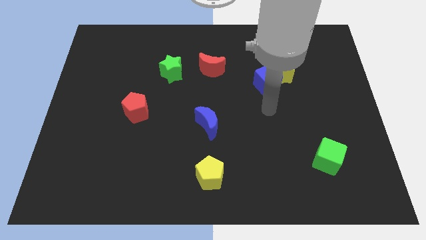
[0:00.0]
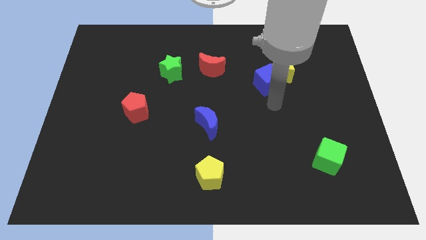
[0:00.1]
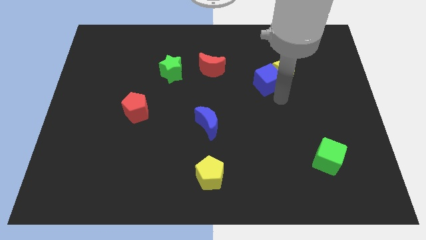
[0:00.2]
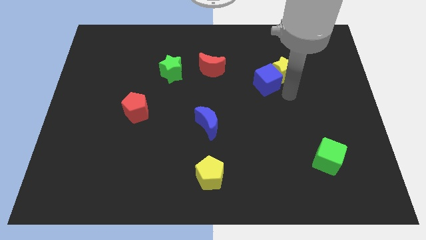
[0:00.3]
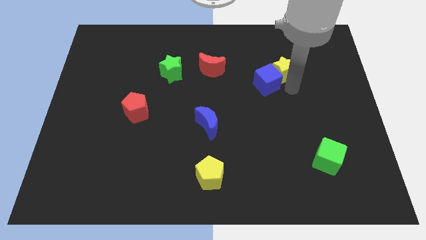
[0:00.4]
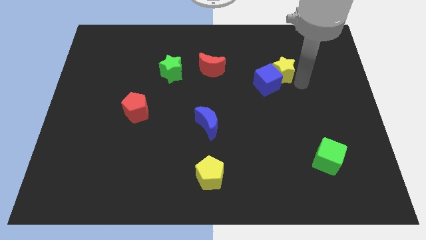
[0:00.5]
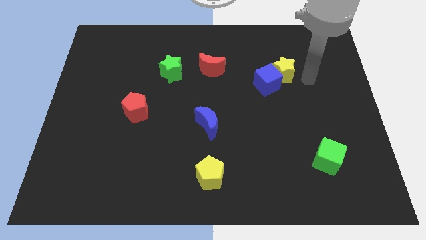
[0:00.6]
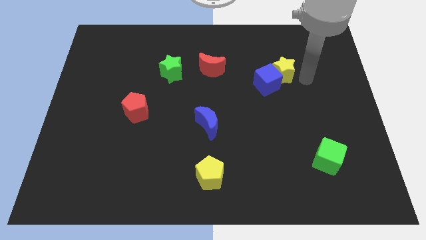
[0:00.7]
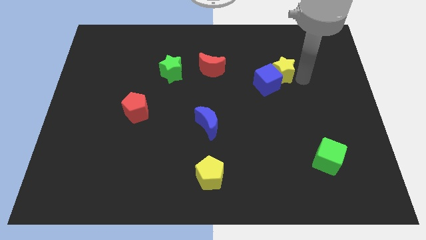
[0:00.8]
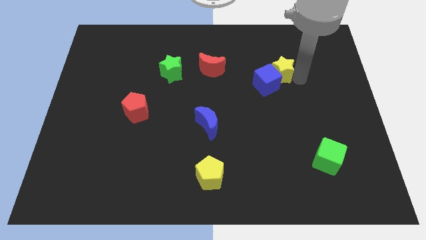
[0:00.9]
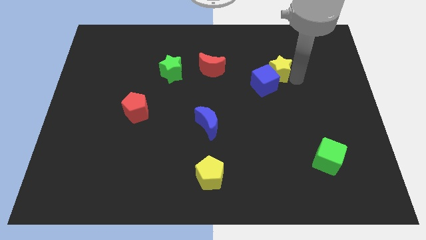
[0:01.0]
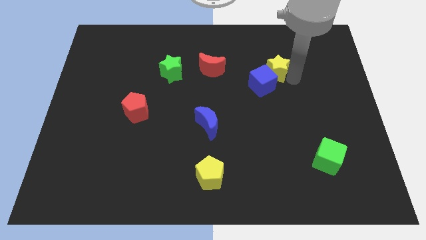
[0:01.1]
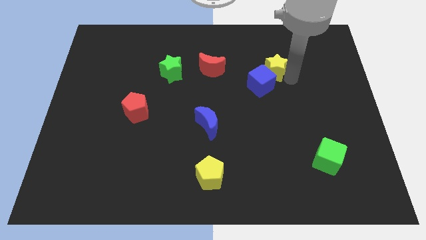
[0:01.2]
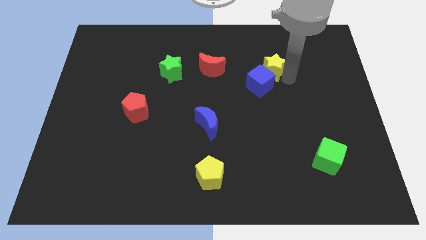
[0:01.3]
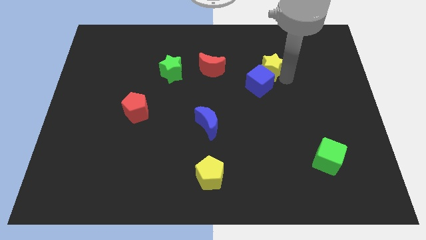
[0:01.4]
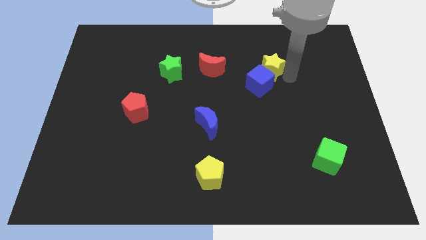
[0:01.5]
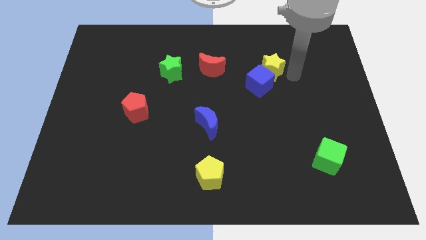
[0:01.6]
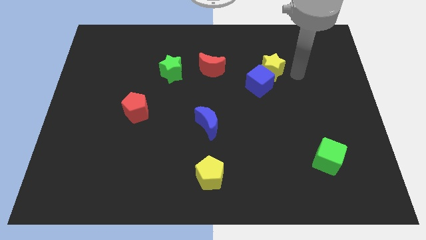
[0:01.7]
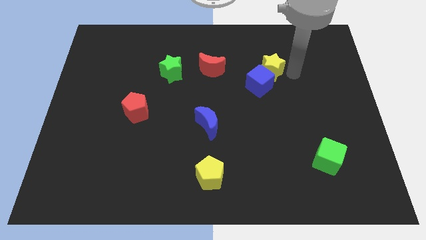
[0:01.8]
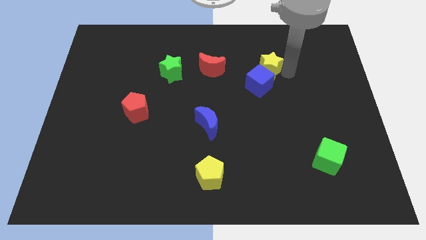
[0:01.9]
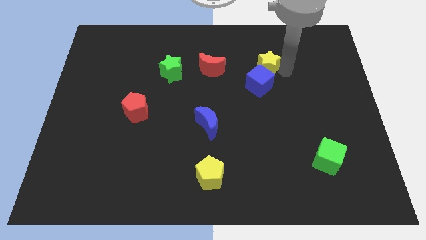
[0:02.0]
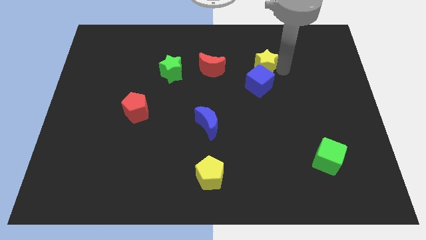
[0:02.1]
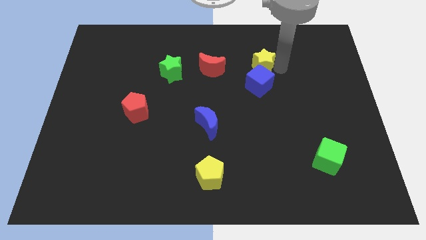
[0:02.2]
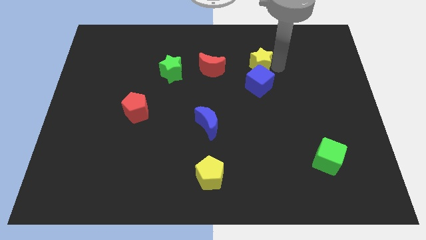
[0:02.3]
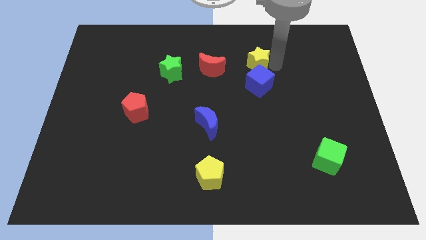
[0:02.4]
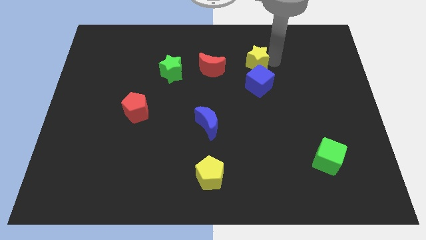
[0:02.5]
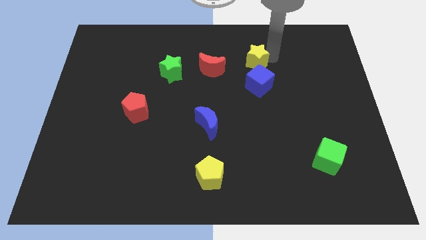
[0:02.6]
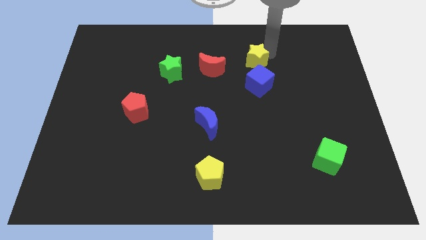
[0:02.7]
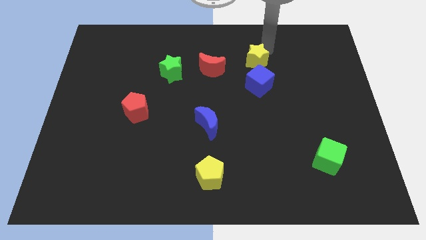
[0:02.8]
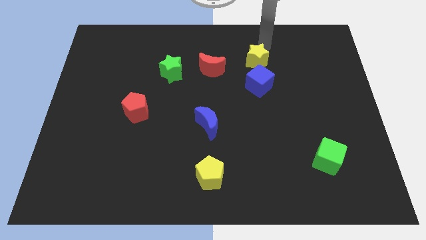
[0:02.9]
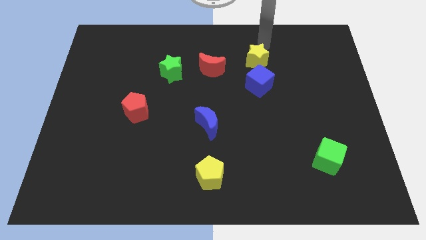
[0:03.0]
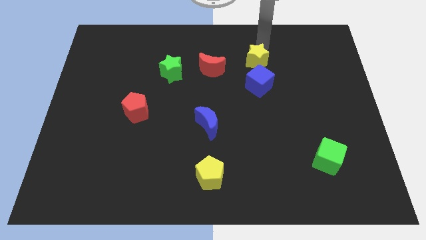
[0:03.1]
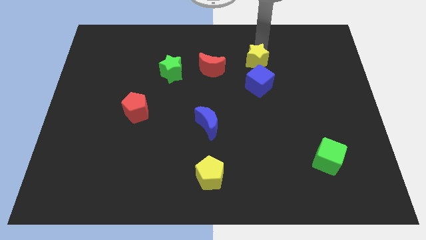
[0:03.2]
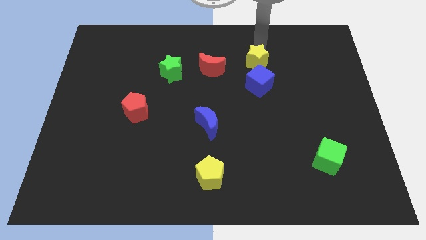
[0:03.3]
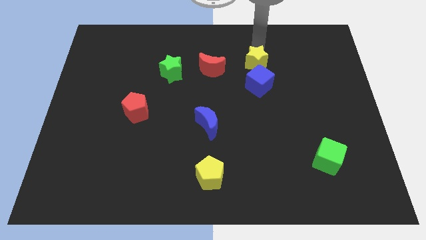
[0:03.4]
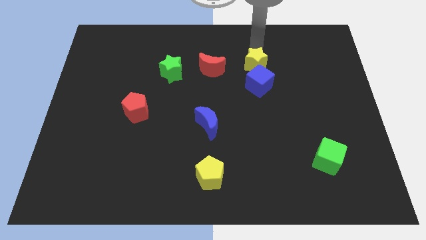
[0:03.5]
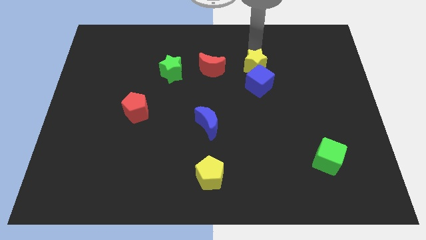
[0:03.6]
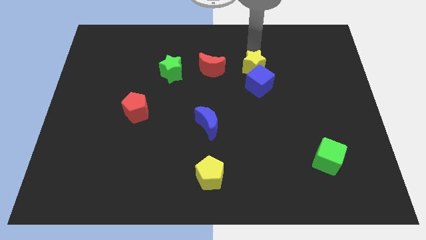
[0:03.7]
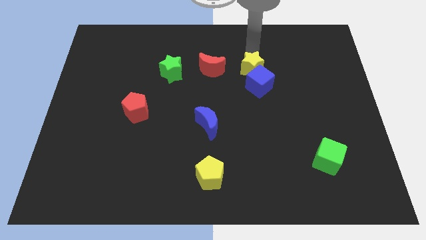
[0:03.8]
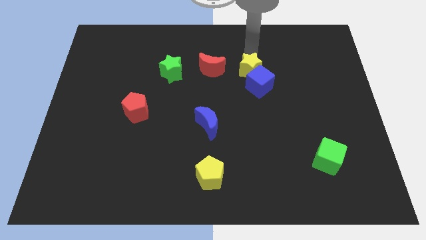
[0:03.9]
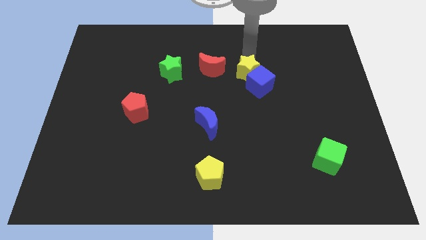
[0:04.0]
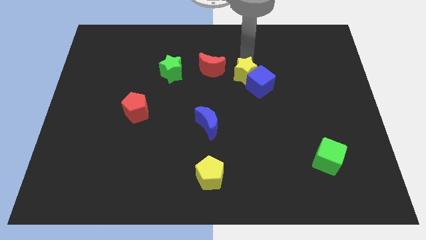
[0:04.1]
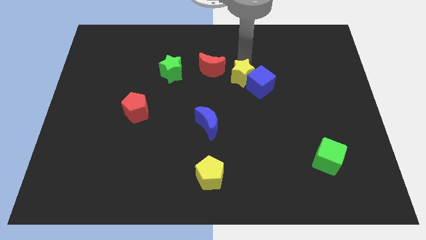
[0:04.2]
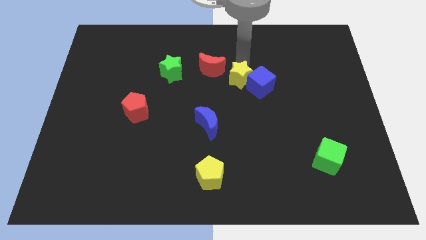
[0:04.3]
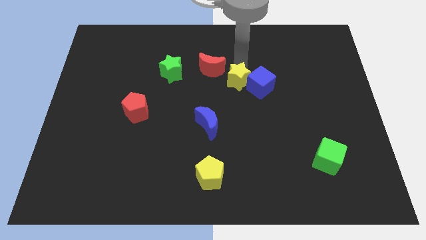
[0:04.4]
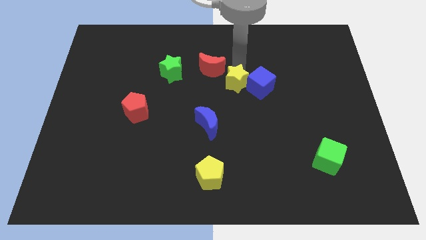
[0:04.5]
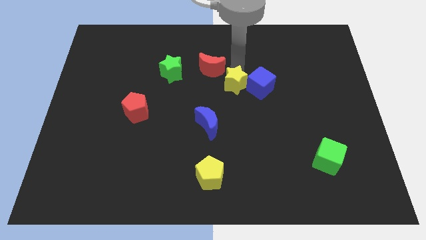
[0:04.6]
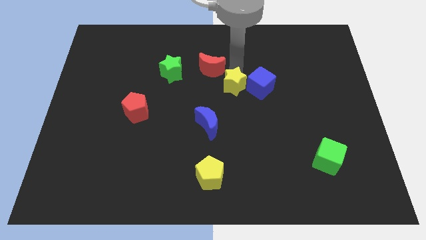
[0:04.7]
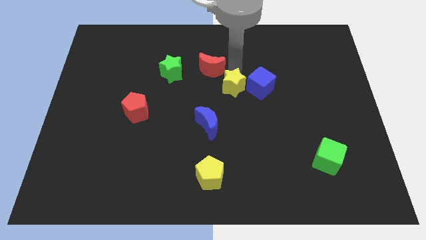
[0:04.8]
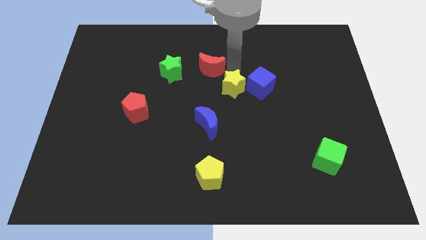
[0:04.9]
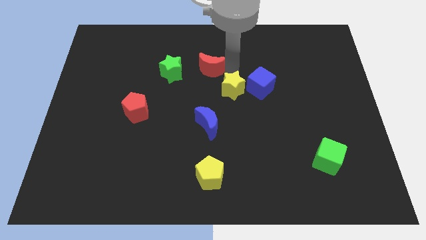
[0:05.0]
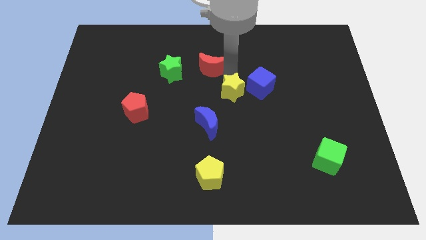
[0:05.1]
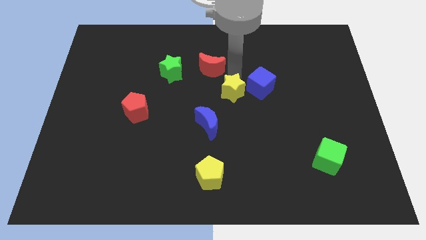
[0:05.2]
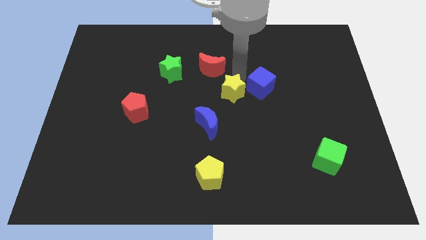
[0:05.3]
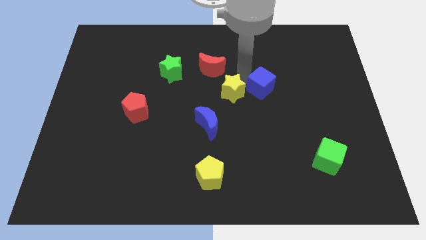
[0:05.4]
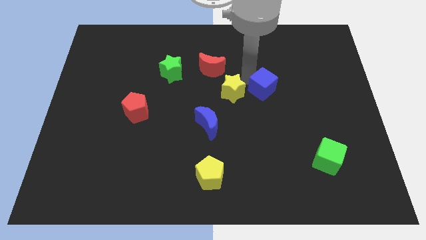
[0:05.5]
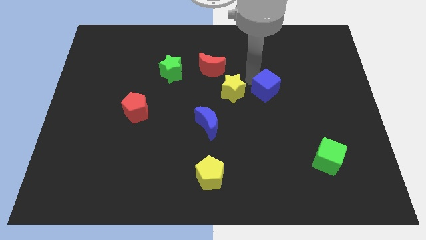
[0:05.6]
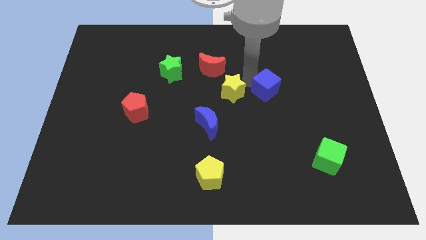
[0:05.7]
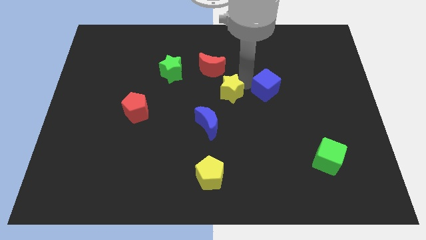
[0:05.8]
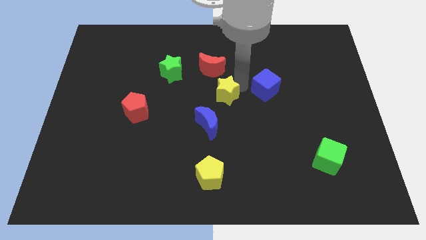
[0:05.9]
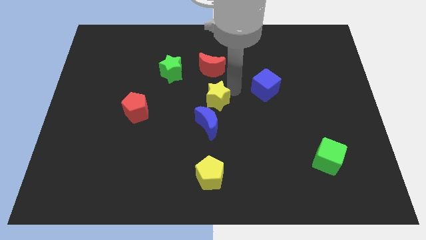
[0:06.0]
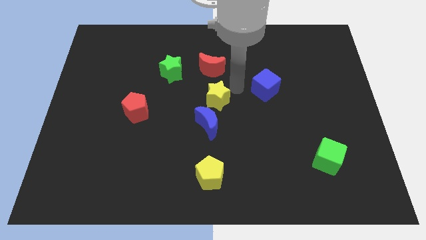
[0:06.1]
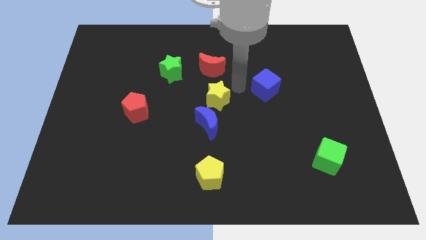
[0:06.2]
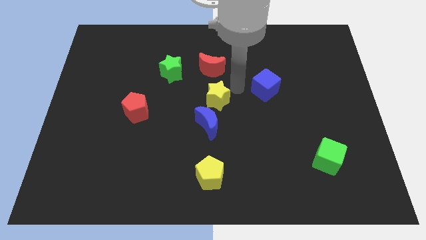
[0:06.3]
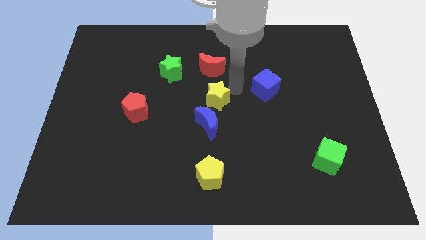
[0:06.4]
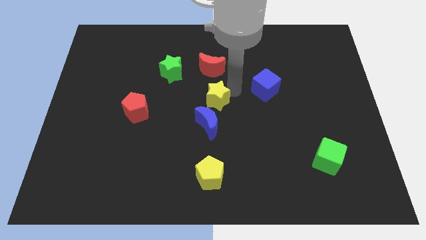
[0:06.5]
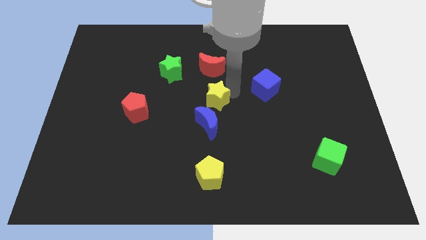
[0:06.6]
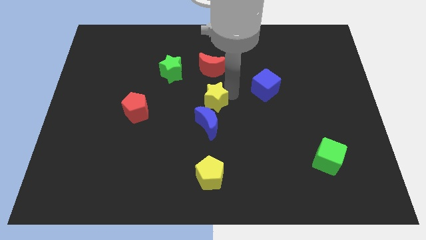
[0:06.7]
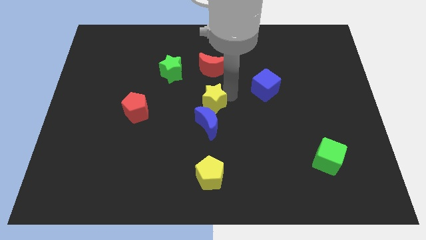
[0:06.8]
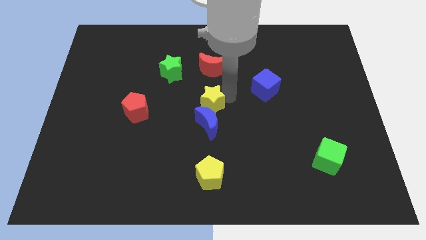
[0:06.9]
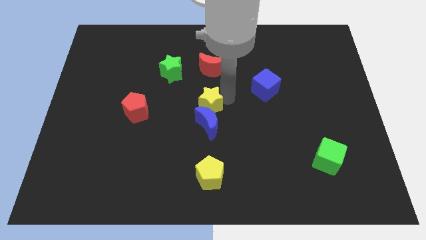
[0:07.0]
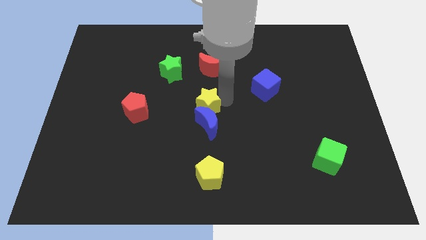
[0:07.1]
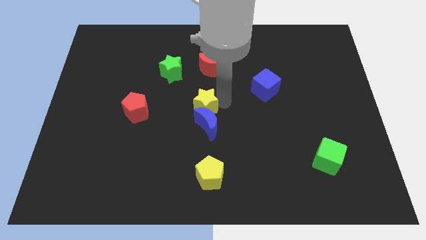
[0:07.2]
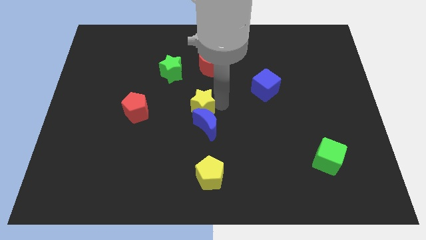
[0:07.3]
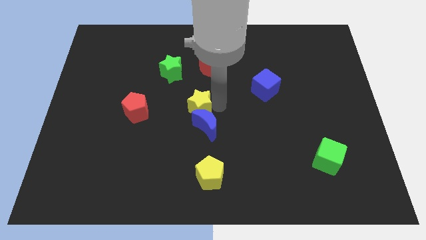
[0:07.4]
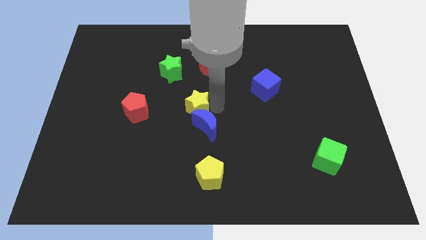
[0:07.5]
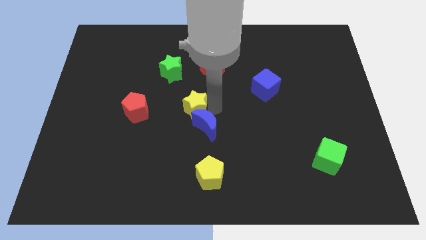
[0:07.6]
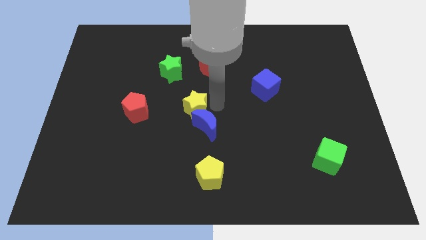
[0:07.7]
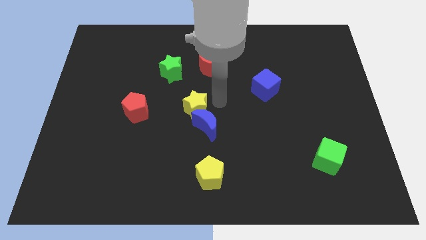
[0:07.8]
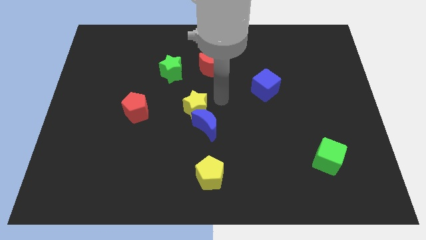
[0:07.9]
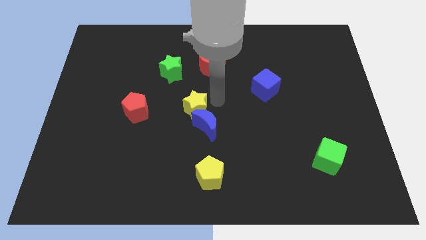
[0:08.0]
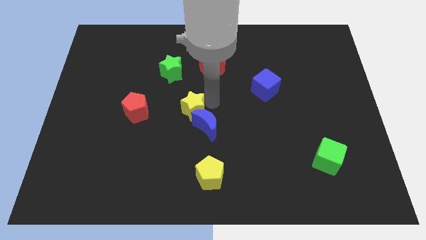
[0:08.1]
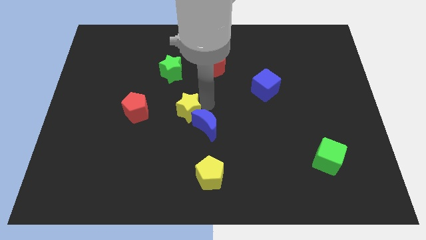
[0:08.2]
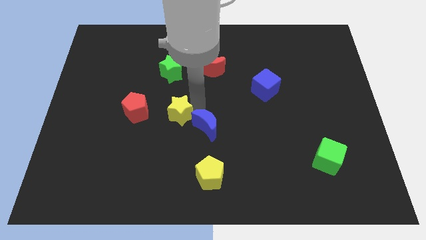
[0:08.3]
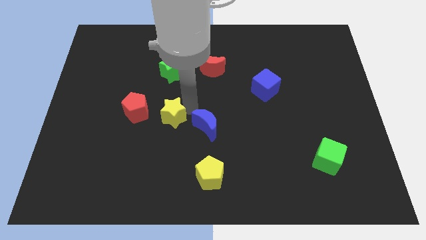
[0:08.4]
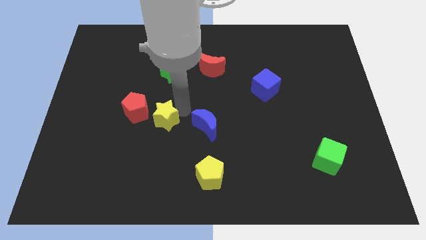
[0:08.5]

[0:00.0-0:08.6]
put the yellow star diagonally down and to the right of the red pentagon
